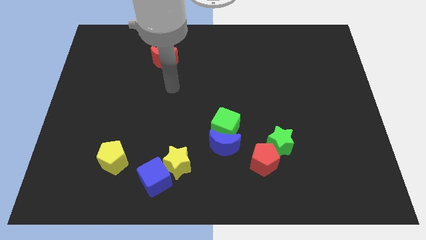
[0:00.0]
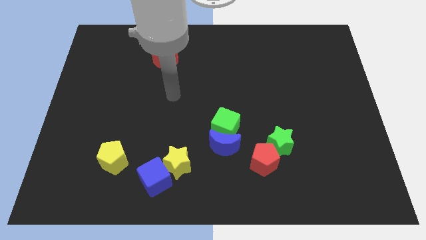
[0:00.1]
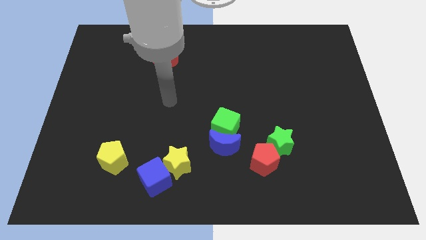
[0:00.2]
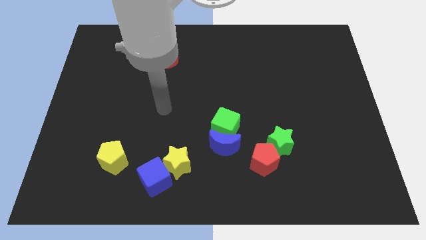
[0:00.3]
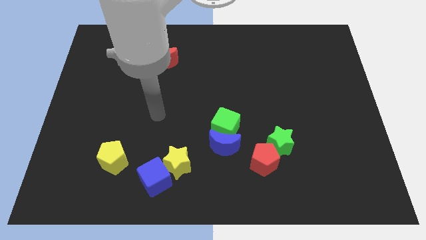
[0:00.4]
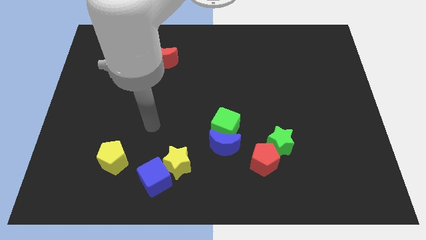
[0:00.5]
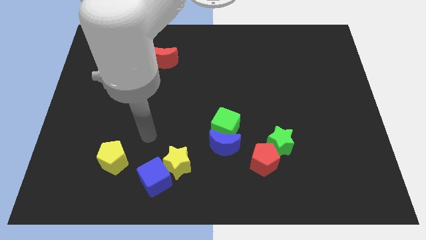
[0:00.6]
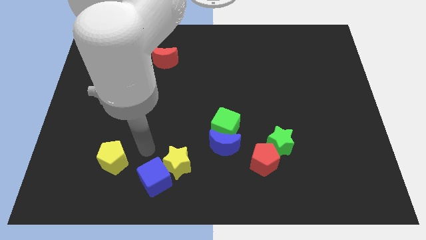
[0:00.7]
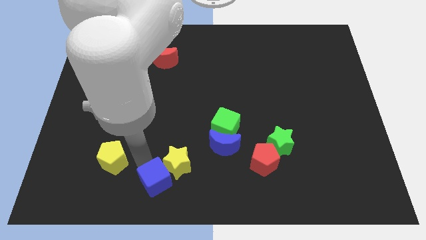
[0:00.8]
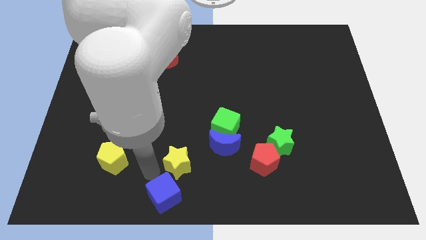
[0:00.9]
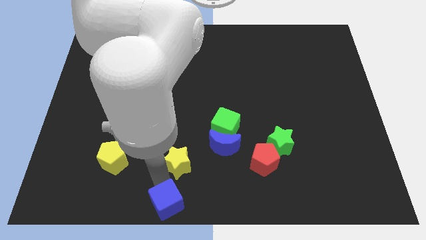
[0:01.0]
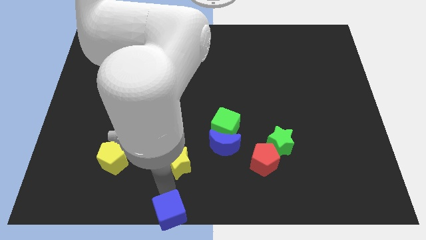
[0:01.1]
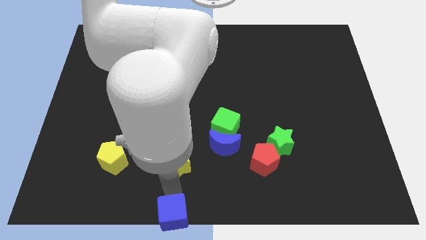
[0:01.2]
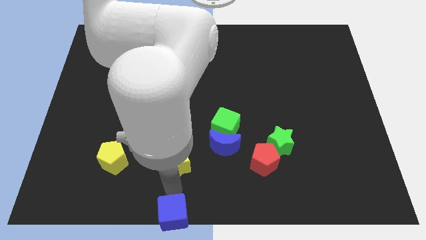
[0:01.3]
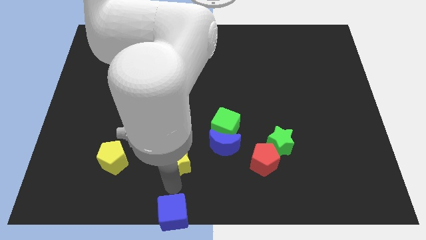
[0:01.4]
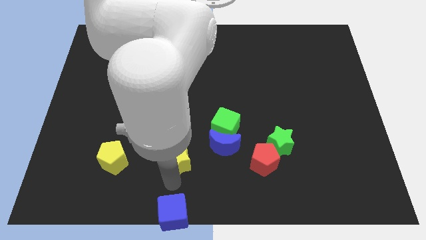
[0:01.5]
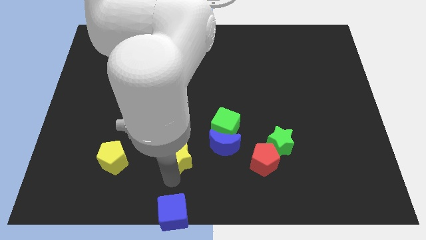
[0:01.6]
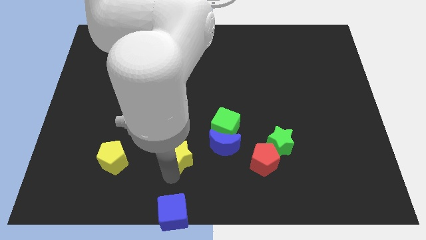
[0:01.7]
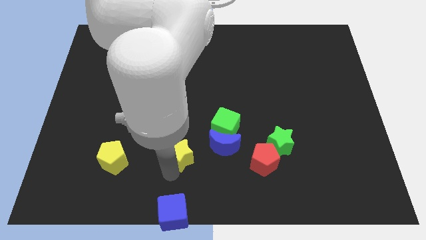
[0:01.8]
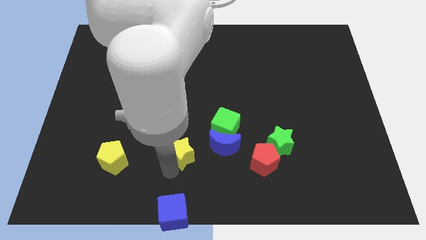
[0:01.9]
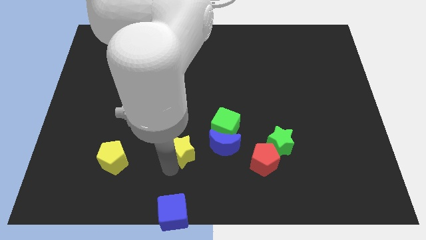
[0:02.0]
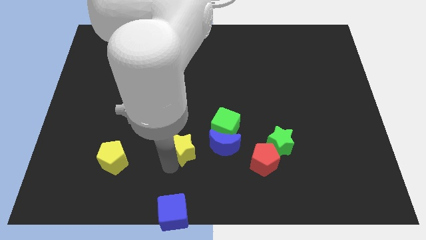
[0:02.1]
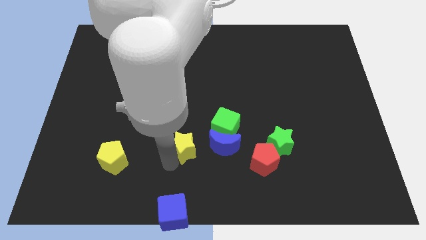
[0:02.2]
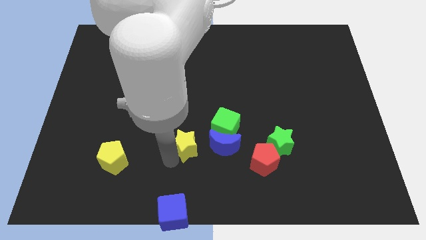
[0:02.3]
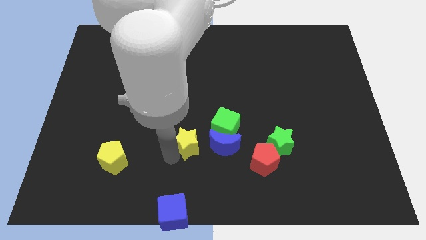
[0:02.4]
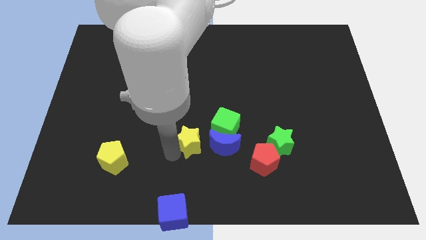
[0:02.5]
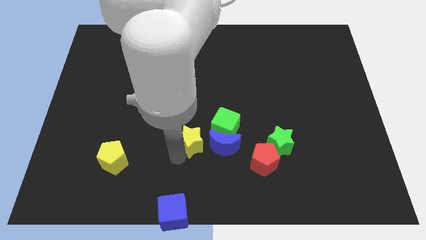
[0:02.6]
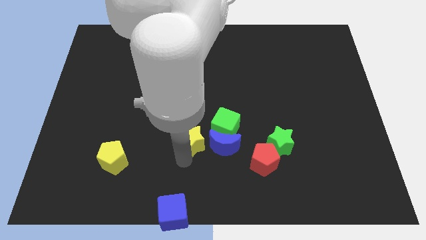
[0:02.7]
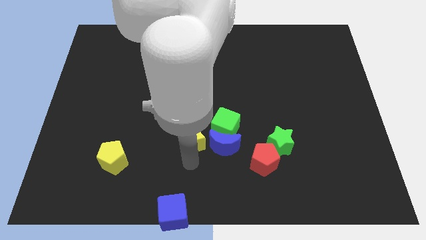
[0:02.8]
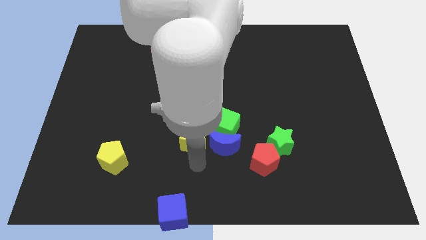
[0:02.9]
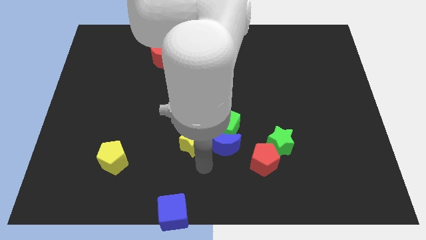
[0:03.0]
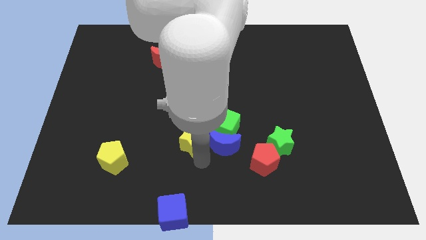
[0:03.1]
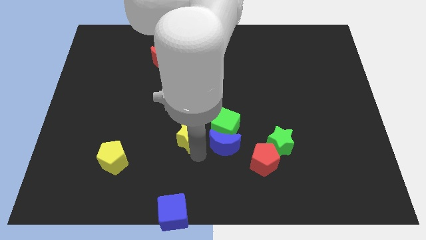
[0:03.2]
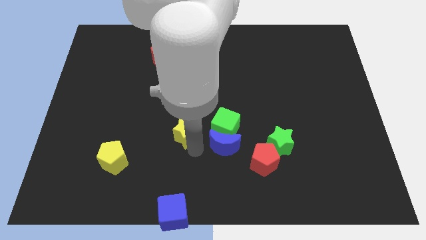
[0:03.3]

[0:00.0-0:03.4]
slide the yellow star somewhat up

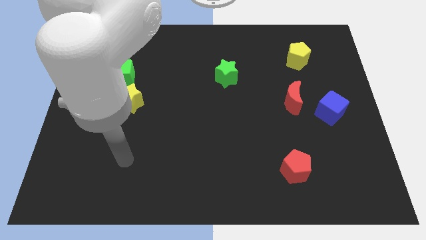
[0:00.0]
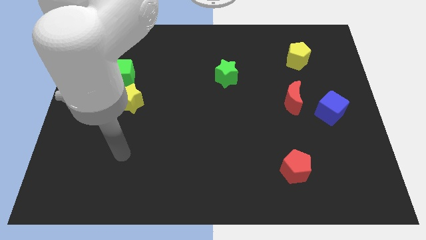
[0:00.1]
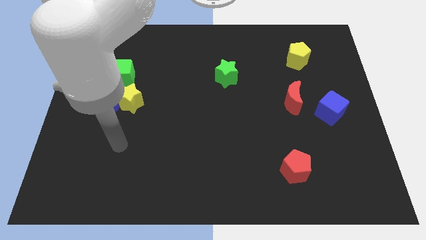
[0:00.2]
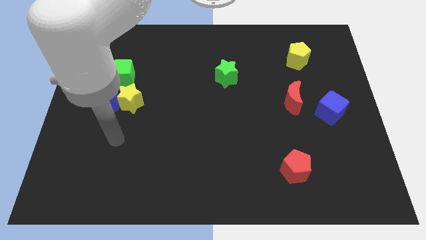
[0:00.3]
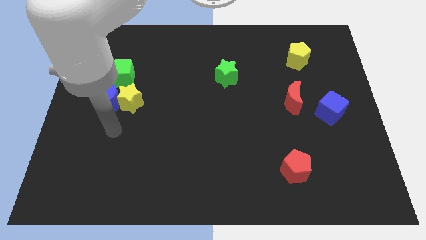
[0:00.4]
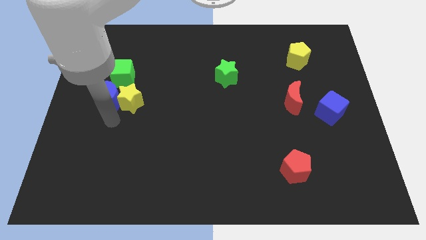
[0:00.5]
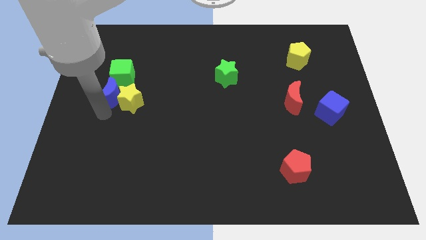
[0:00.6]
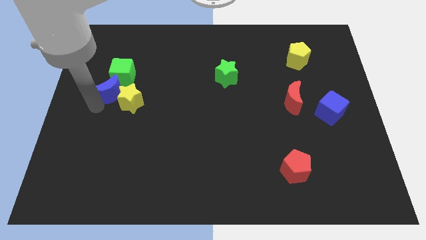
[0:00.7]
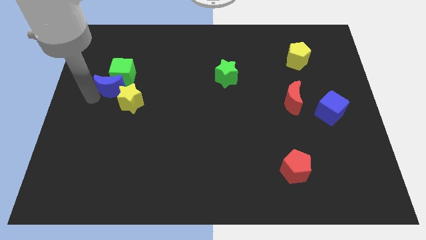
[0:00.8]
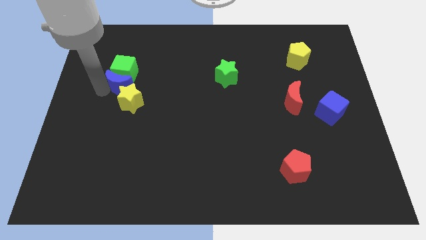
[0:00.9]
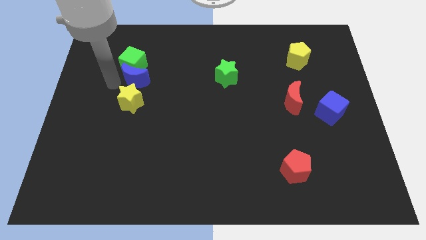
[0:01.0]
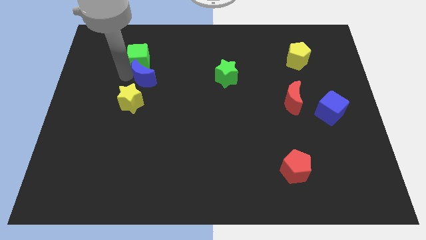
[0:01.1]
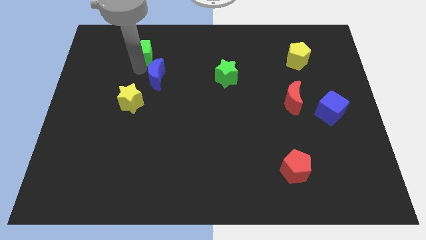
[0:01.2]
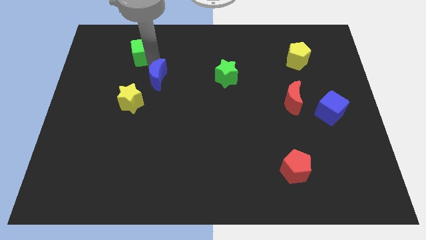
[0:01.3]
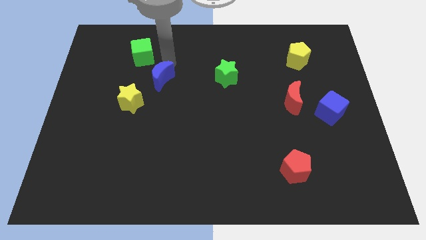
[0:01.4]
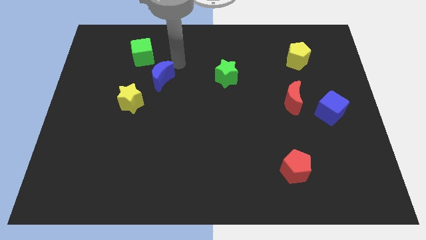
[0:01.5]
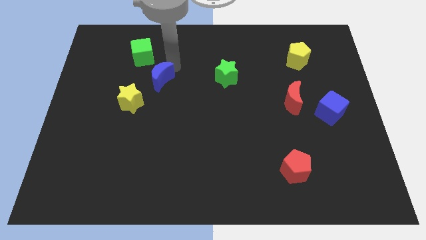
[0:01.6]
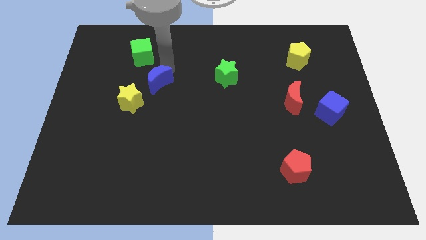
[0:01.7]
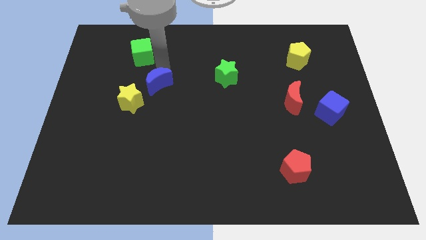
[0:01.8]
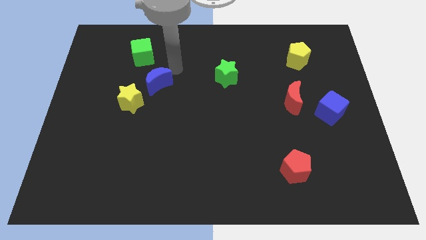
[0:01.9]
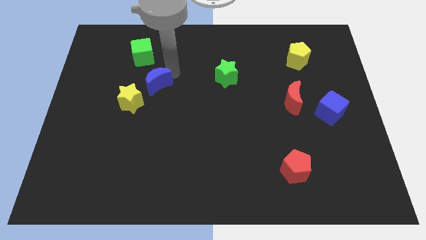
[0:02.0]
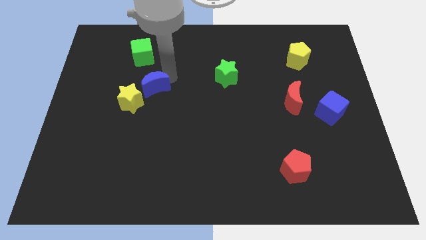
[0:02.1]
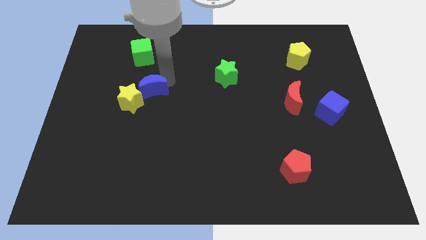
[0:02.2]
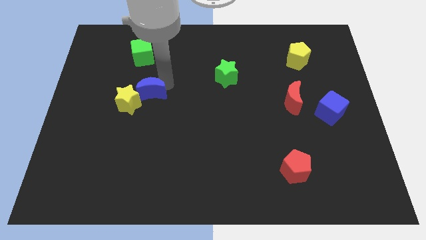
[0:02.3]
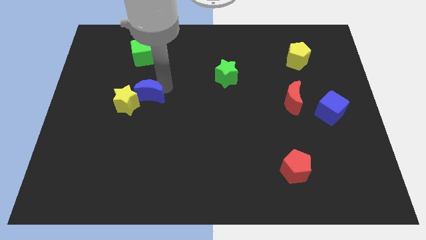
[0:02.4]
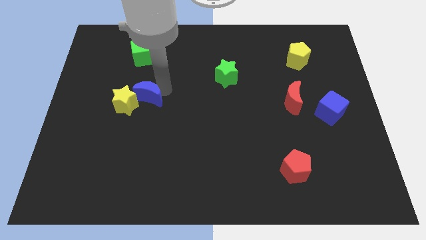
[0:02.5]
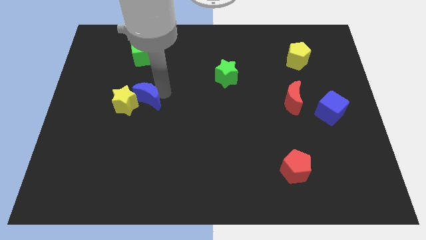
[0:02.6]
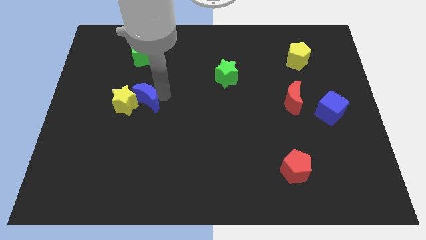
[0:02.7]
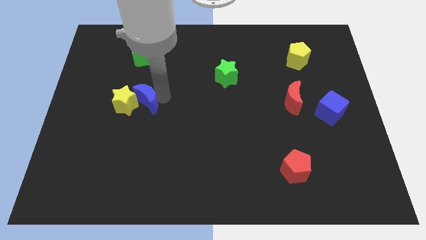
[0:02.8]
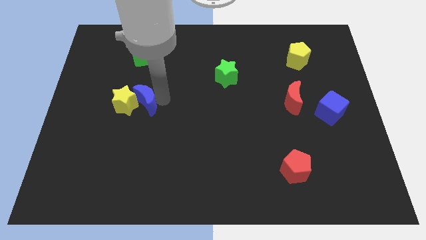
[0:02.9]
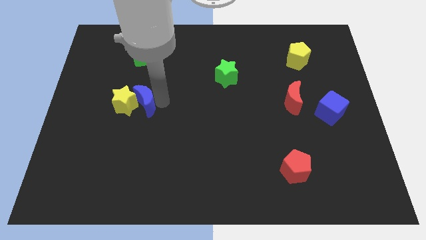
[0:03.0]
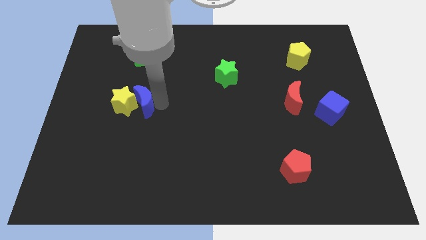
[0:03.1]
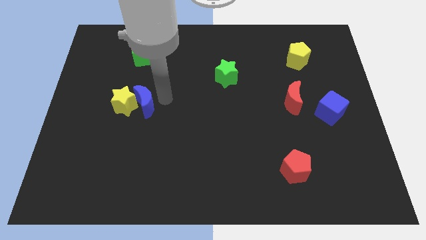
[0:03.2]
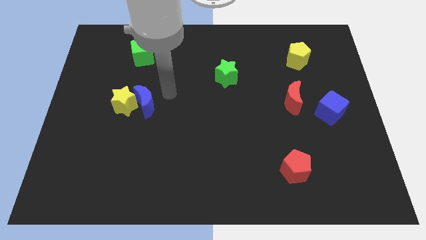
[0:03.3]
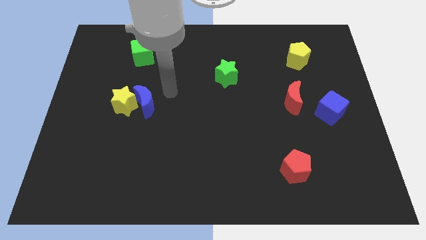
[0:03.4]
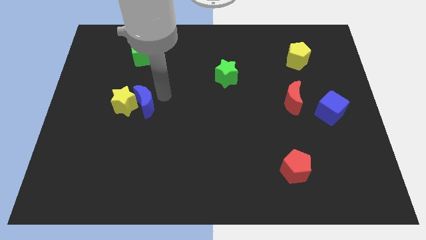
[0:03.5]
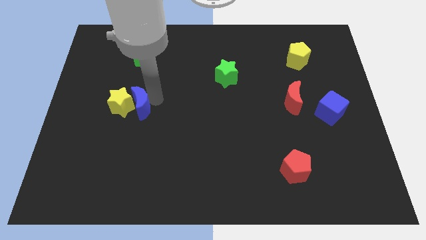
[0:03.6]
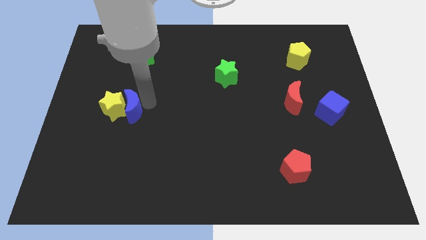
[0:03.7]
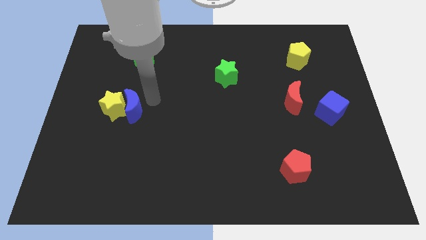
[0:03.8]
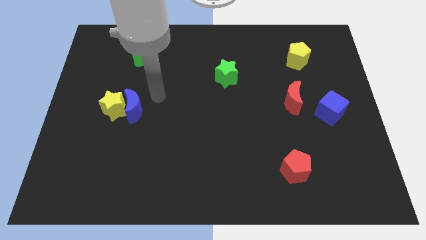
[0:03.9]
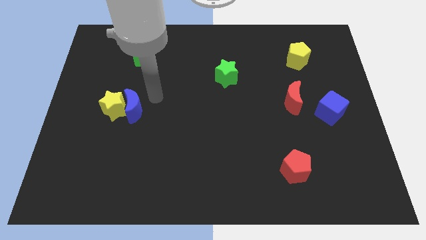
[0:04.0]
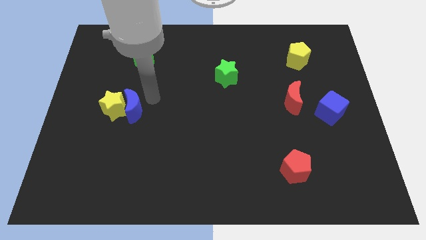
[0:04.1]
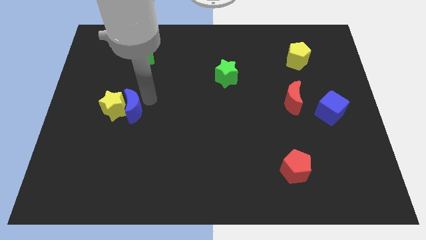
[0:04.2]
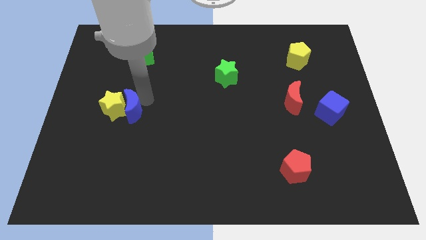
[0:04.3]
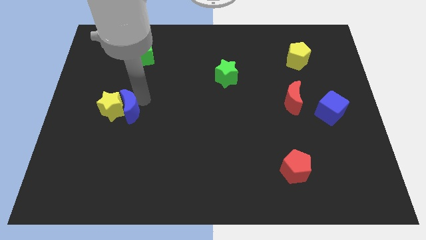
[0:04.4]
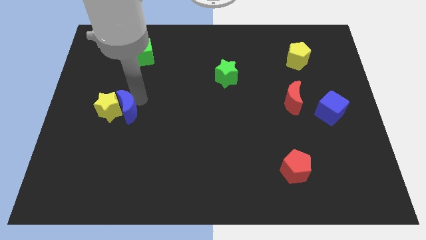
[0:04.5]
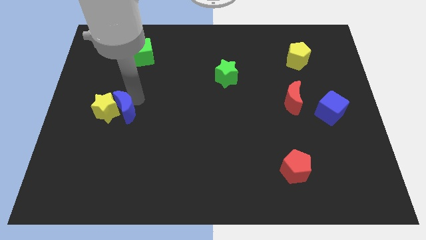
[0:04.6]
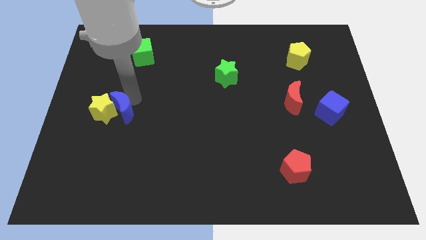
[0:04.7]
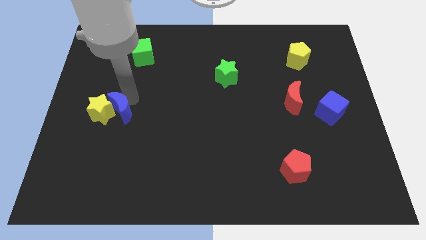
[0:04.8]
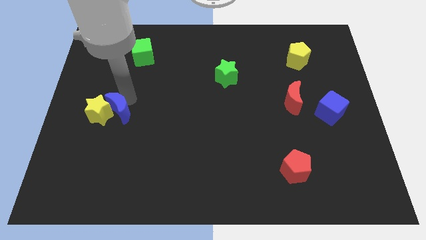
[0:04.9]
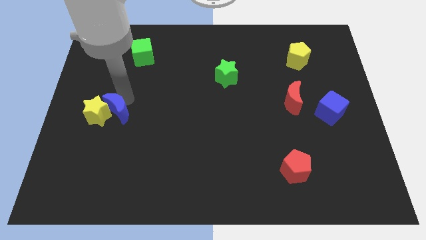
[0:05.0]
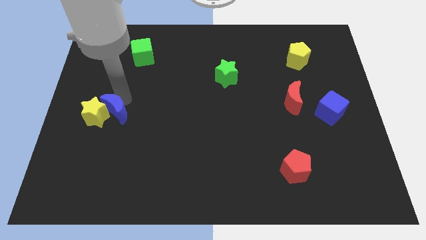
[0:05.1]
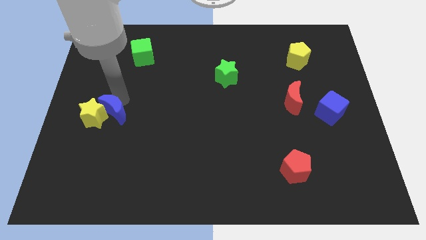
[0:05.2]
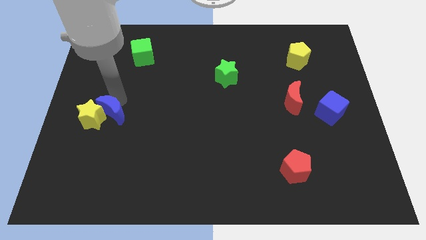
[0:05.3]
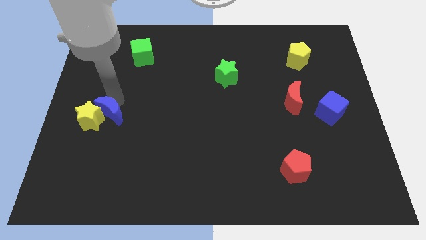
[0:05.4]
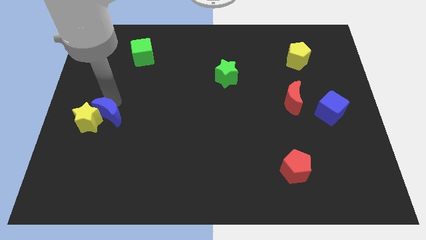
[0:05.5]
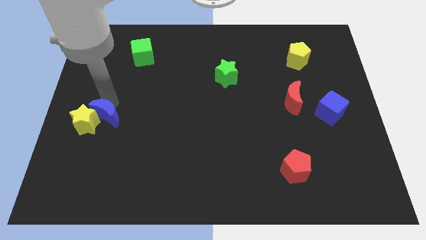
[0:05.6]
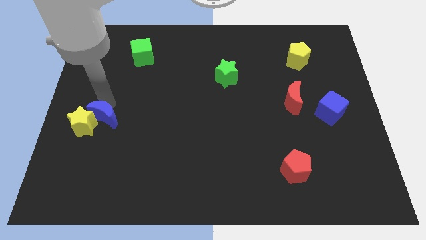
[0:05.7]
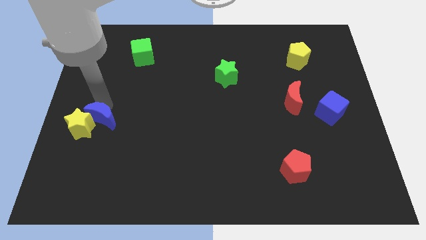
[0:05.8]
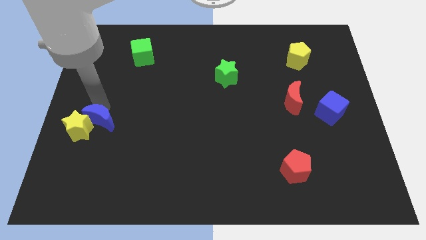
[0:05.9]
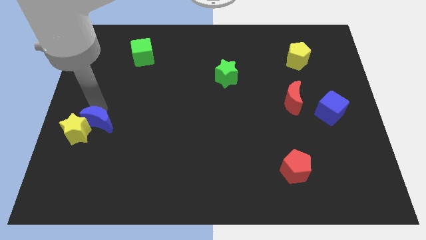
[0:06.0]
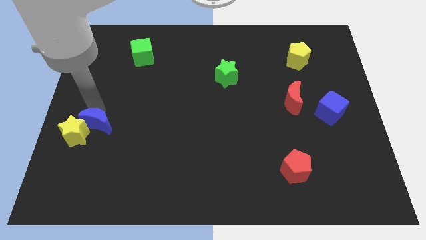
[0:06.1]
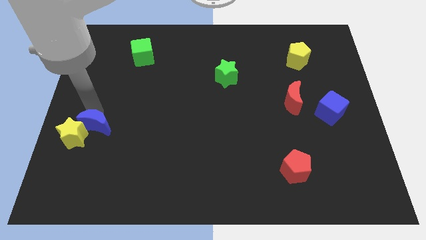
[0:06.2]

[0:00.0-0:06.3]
move the blue moon a bit downwards
